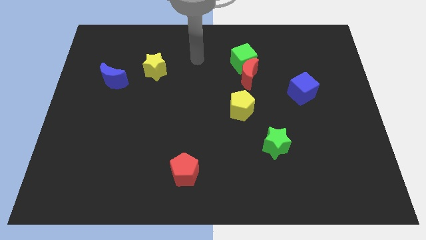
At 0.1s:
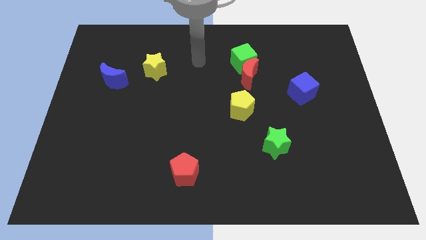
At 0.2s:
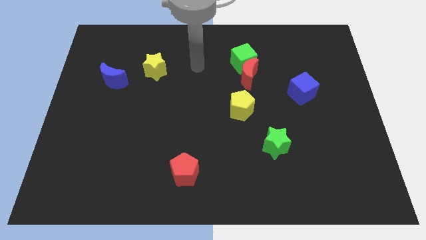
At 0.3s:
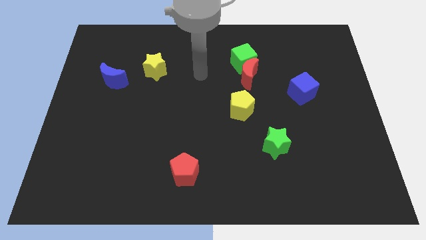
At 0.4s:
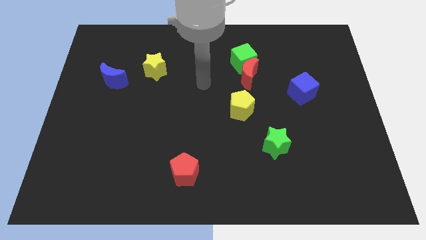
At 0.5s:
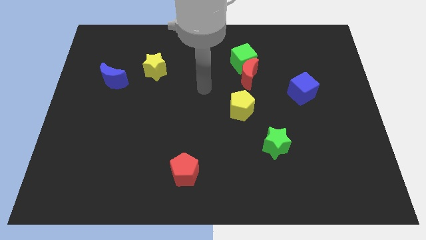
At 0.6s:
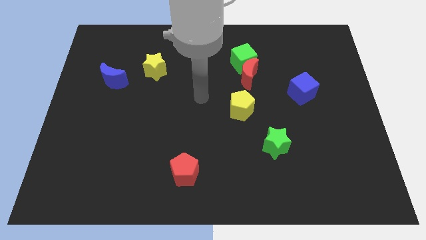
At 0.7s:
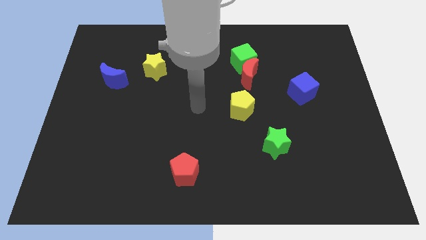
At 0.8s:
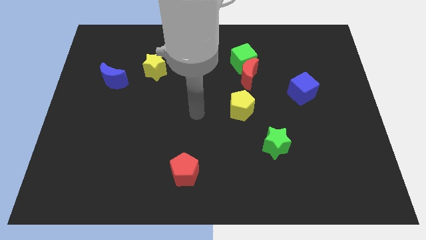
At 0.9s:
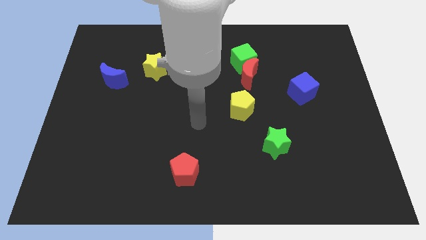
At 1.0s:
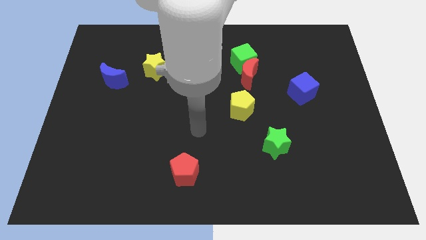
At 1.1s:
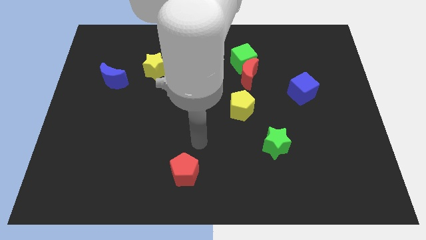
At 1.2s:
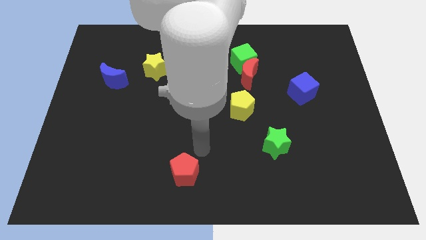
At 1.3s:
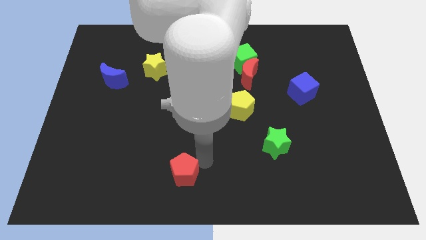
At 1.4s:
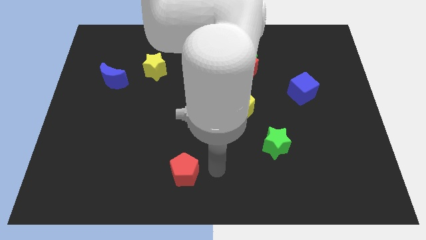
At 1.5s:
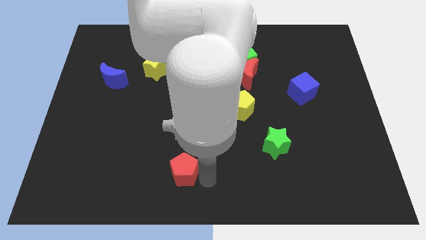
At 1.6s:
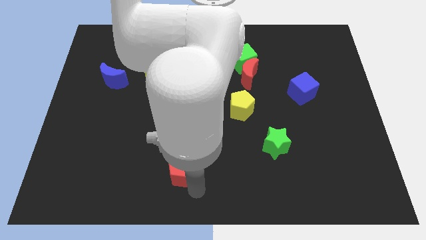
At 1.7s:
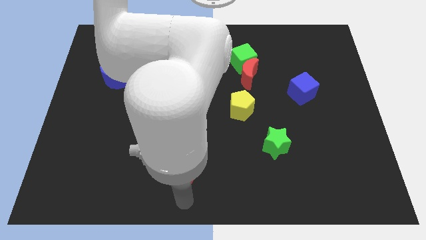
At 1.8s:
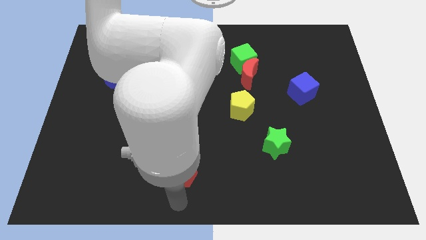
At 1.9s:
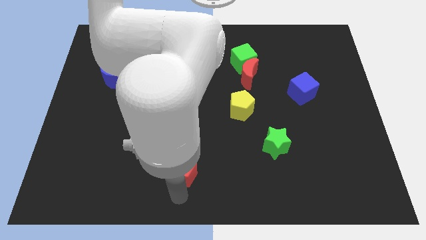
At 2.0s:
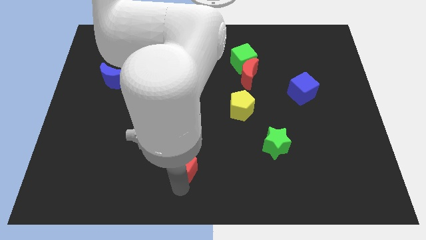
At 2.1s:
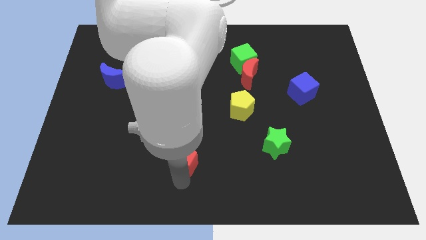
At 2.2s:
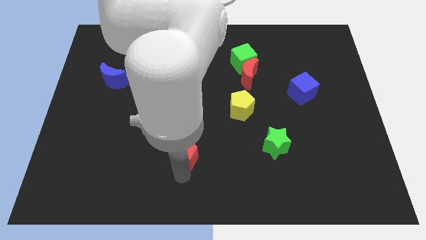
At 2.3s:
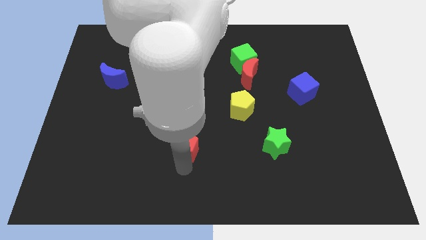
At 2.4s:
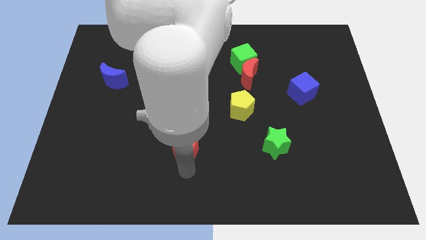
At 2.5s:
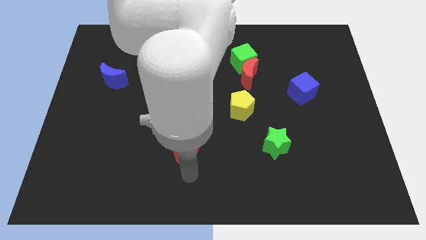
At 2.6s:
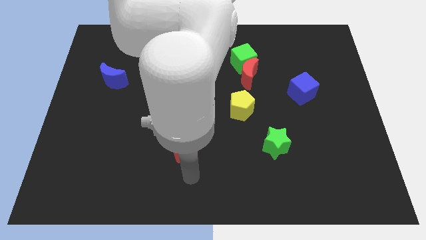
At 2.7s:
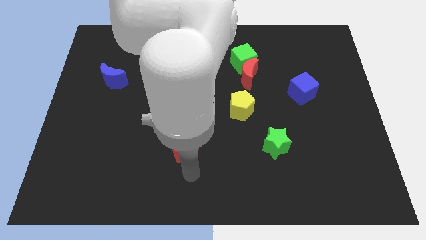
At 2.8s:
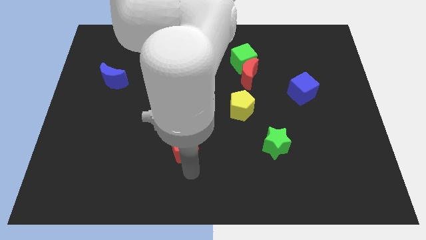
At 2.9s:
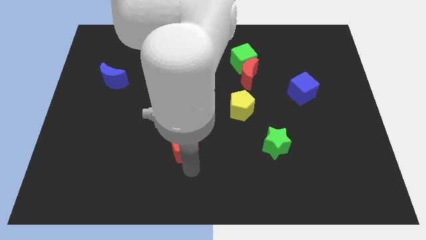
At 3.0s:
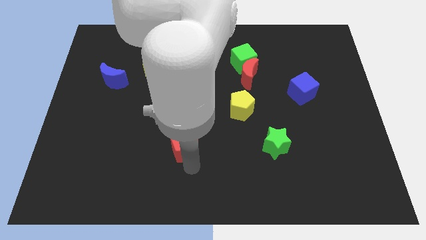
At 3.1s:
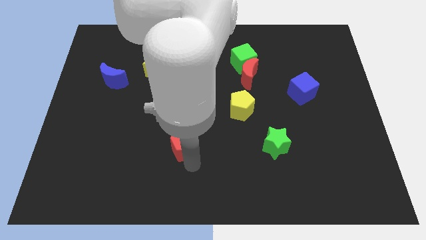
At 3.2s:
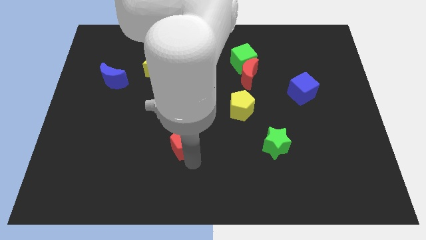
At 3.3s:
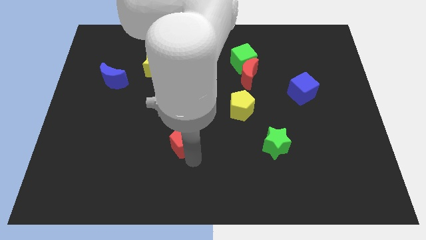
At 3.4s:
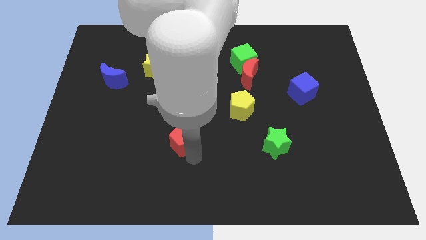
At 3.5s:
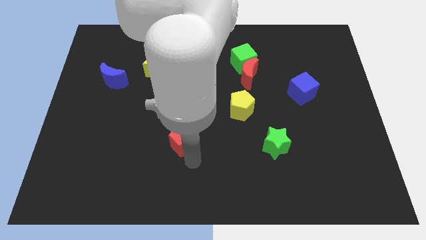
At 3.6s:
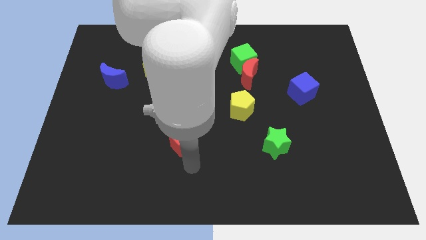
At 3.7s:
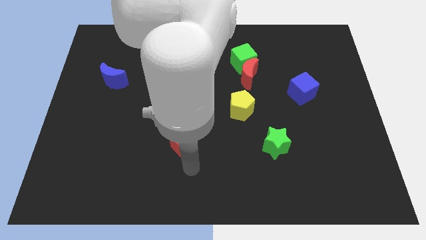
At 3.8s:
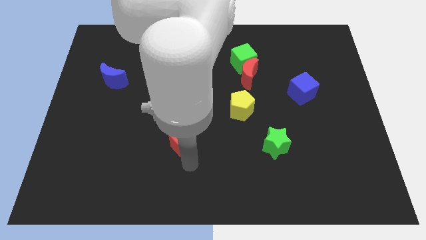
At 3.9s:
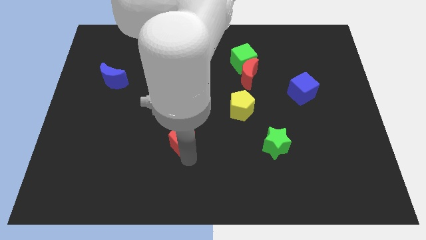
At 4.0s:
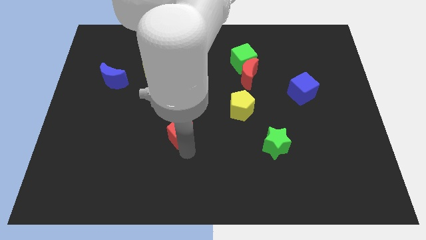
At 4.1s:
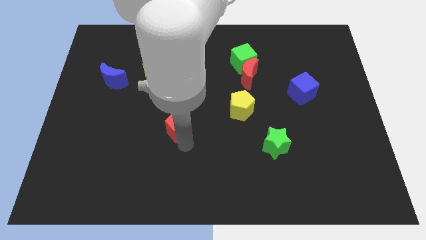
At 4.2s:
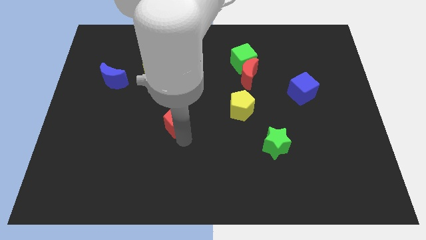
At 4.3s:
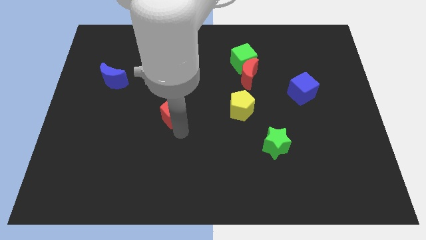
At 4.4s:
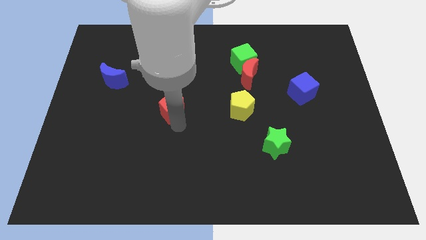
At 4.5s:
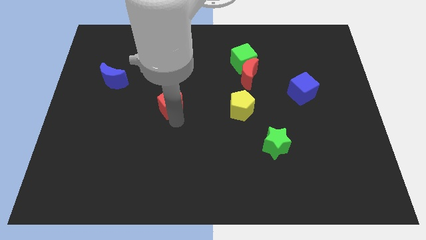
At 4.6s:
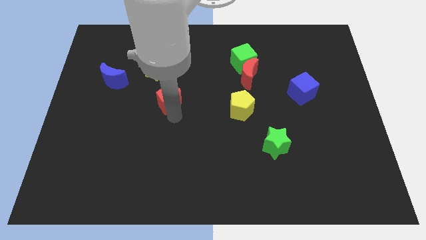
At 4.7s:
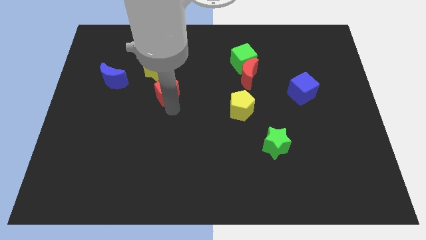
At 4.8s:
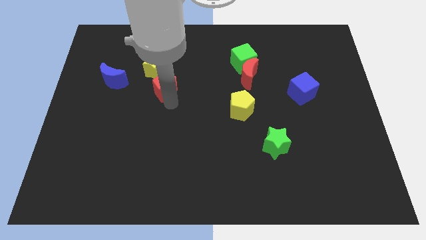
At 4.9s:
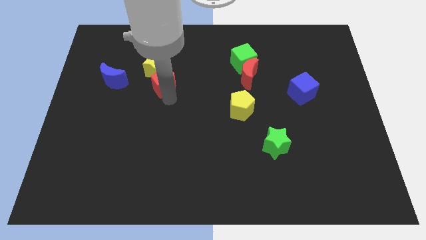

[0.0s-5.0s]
push the red pentagon to the yellow star

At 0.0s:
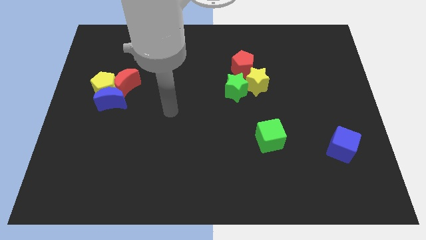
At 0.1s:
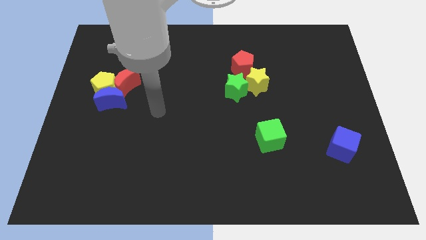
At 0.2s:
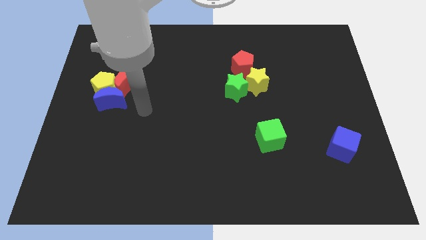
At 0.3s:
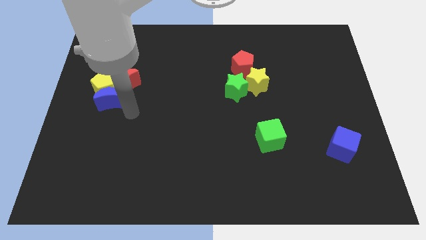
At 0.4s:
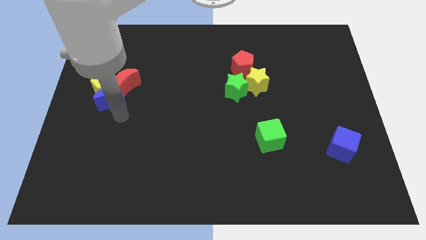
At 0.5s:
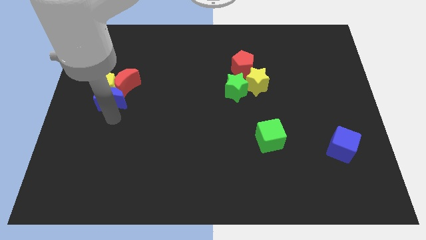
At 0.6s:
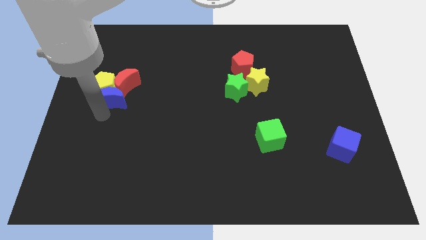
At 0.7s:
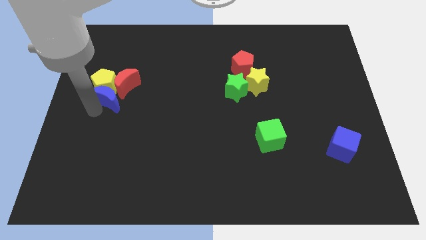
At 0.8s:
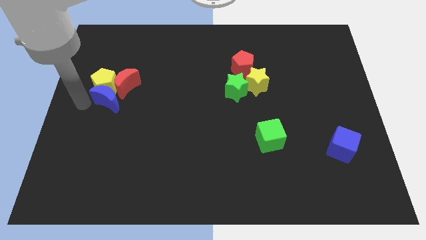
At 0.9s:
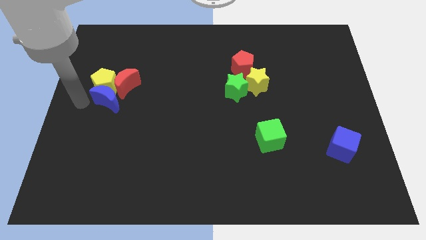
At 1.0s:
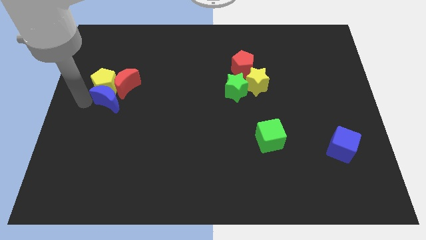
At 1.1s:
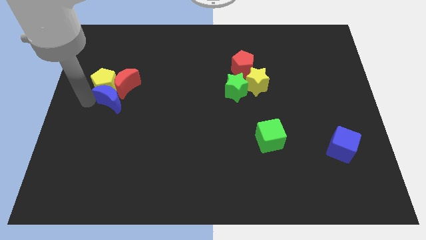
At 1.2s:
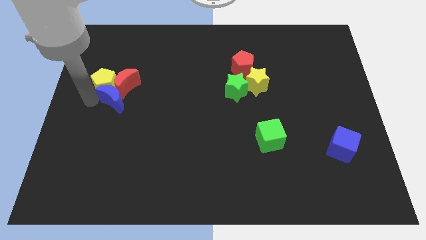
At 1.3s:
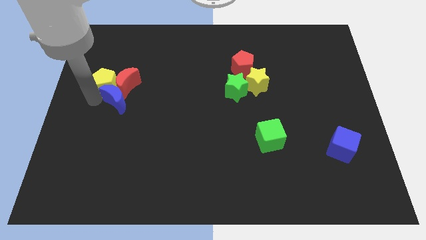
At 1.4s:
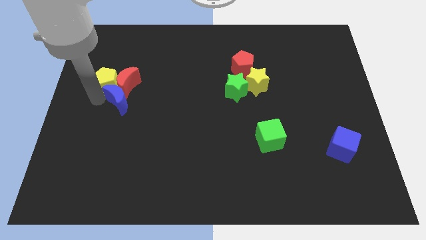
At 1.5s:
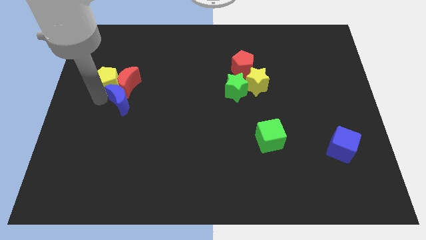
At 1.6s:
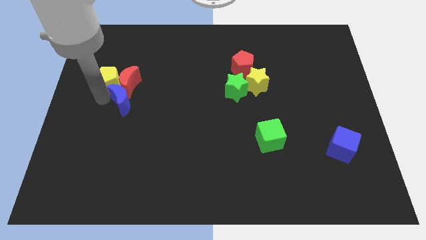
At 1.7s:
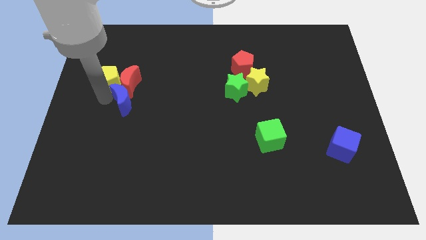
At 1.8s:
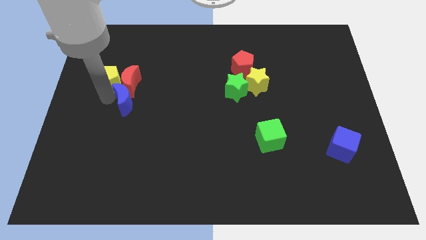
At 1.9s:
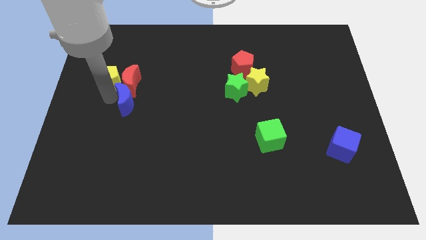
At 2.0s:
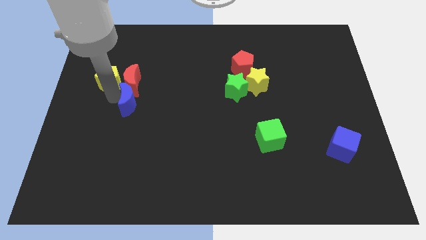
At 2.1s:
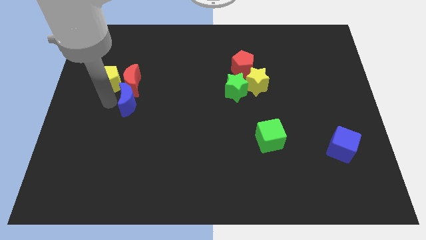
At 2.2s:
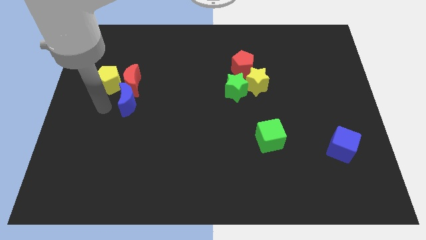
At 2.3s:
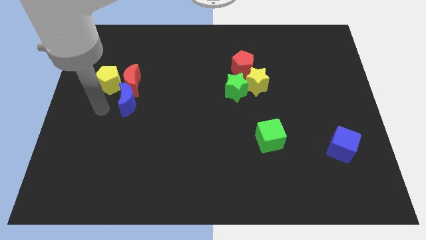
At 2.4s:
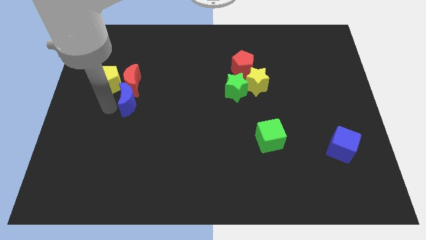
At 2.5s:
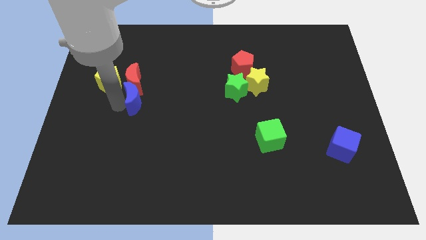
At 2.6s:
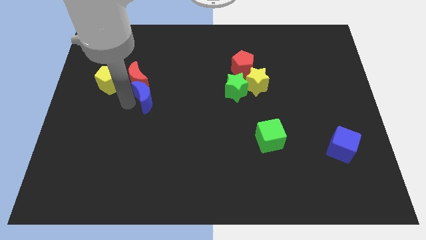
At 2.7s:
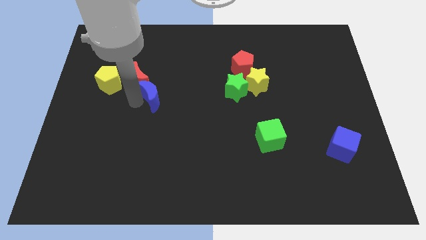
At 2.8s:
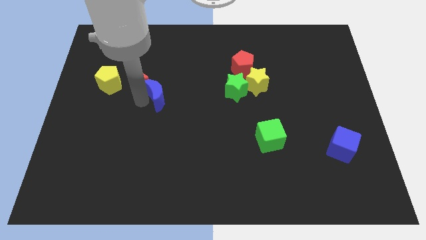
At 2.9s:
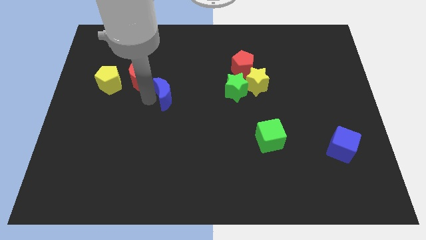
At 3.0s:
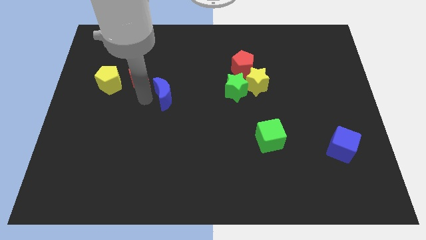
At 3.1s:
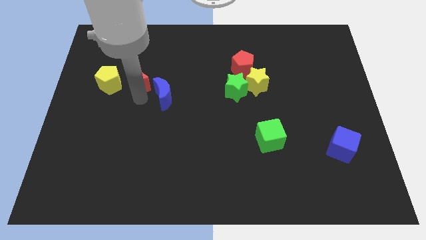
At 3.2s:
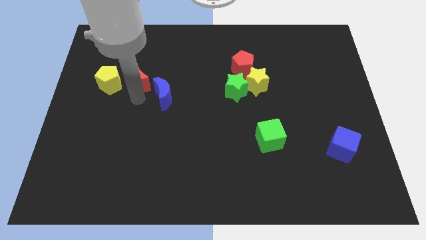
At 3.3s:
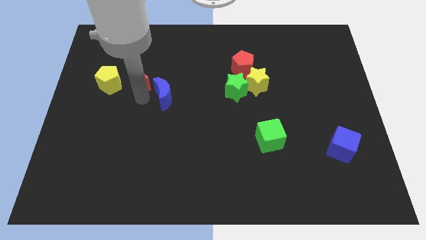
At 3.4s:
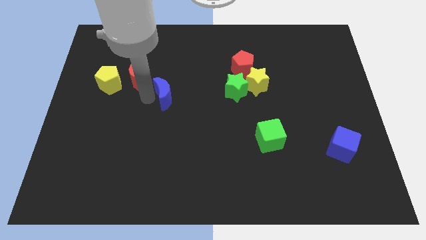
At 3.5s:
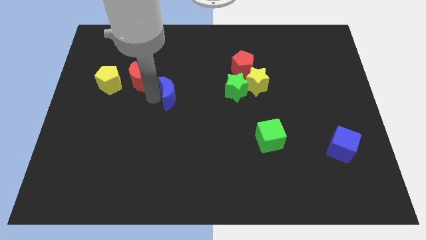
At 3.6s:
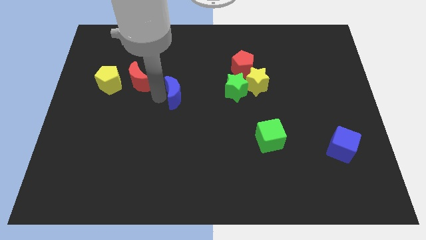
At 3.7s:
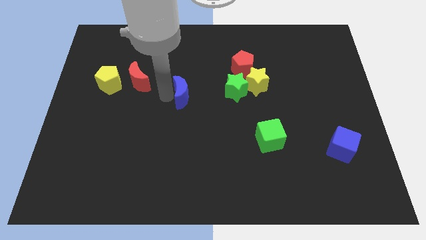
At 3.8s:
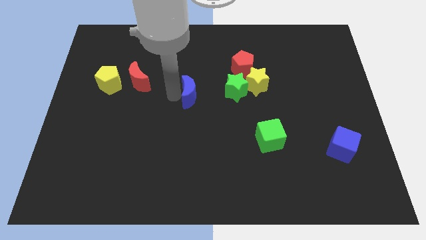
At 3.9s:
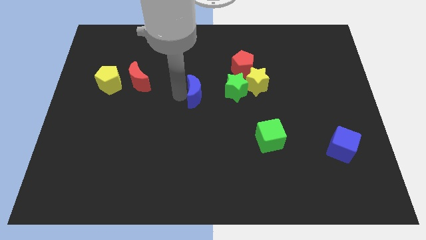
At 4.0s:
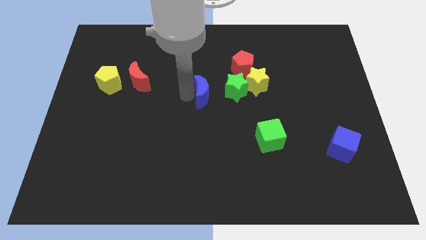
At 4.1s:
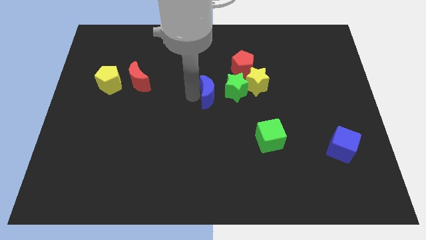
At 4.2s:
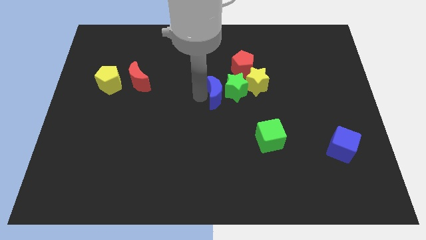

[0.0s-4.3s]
slide the blue moon close to the green star
